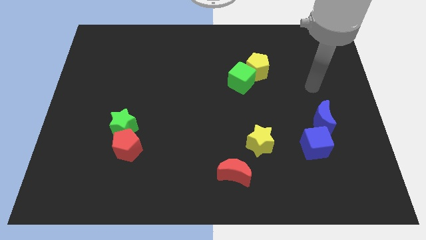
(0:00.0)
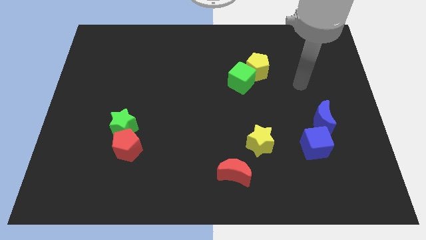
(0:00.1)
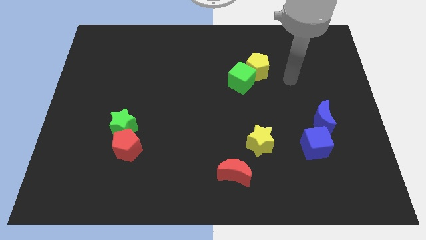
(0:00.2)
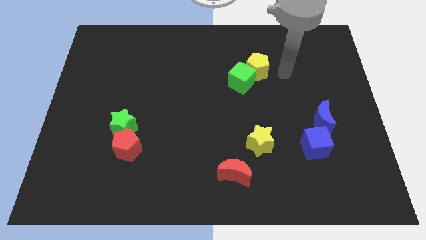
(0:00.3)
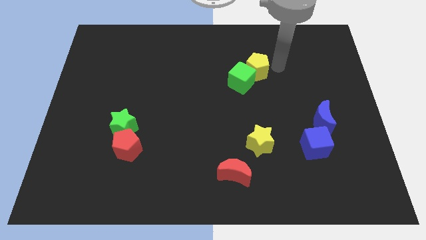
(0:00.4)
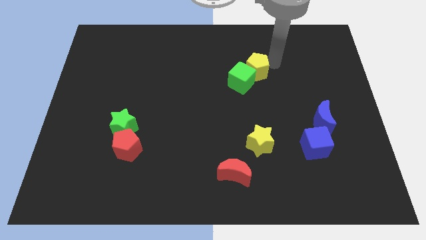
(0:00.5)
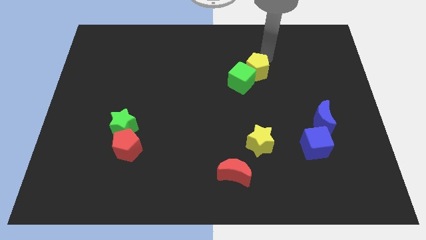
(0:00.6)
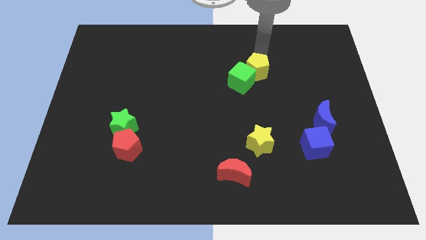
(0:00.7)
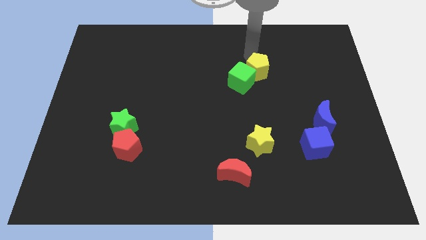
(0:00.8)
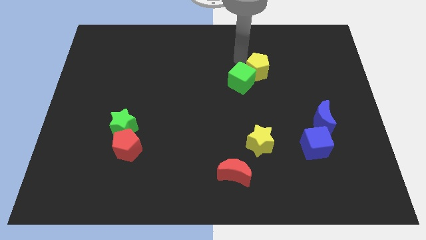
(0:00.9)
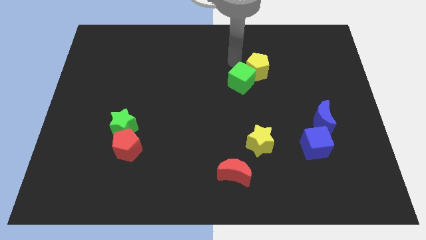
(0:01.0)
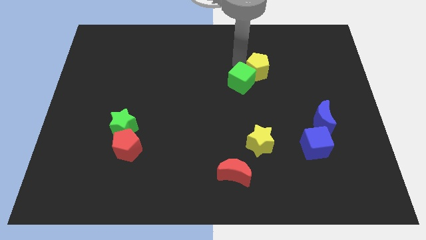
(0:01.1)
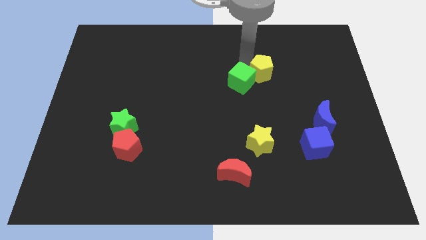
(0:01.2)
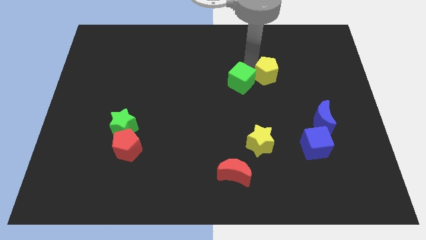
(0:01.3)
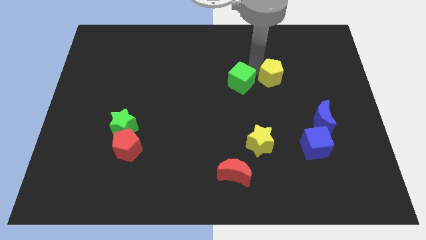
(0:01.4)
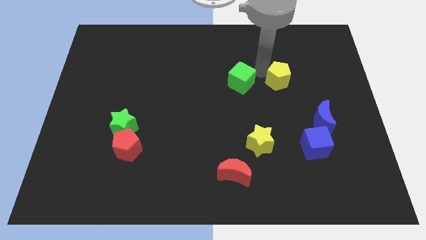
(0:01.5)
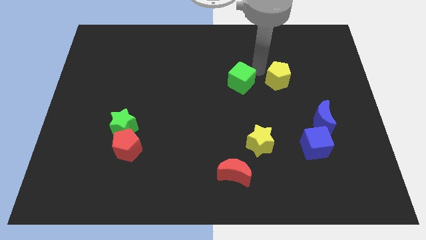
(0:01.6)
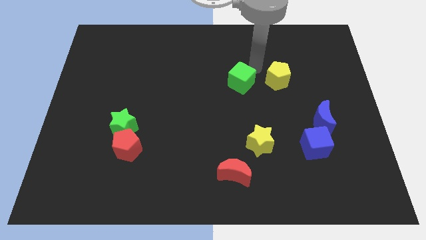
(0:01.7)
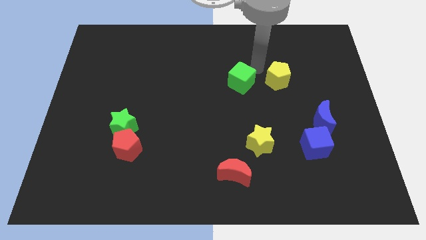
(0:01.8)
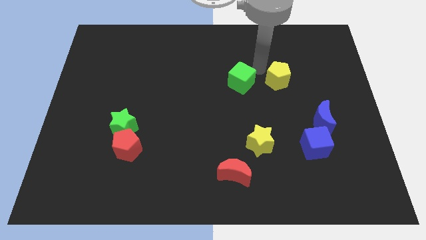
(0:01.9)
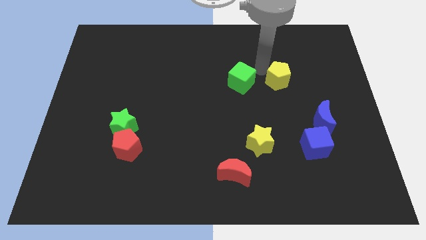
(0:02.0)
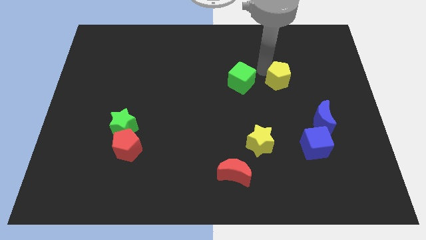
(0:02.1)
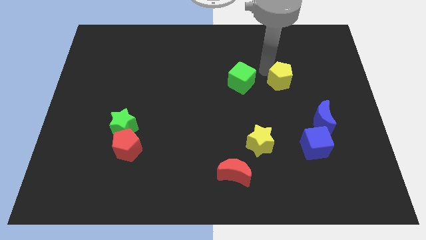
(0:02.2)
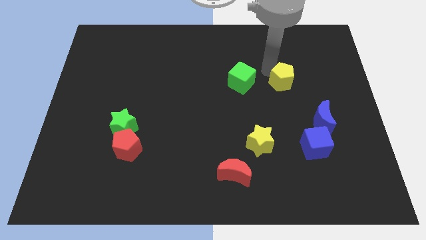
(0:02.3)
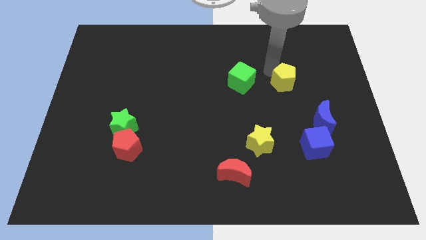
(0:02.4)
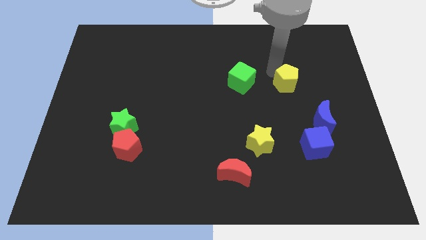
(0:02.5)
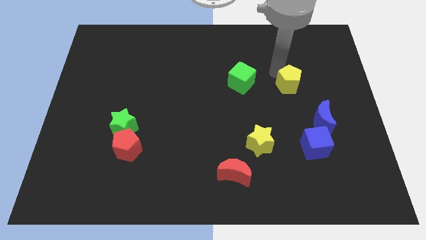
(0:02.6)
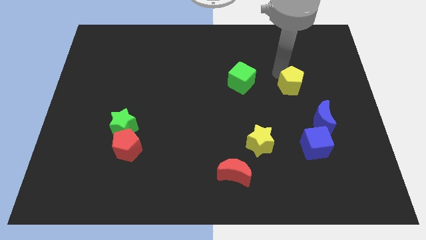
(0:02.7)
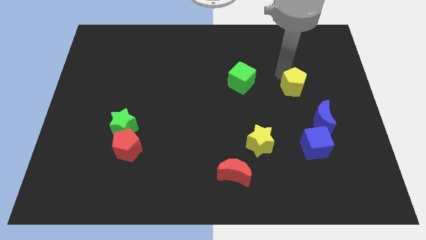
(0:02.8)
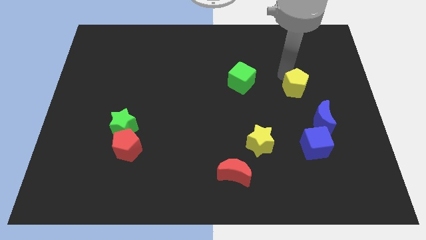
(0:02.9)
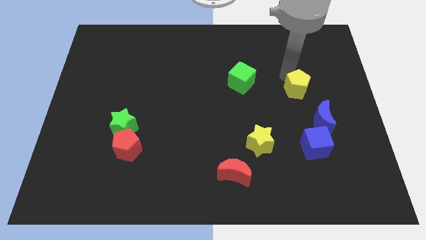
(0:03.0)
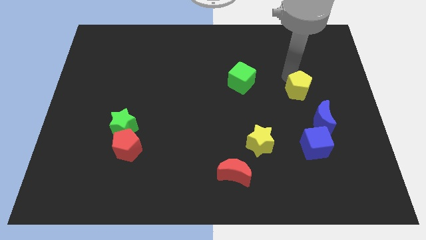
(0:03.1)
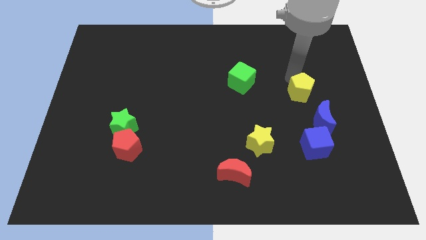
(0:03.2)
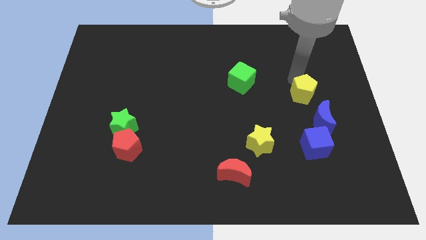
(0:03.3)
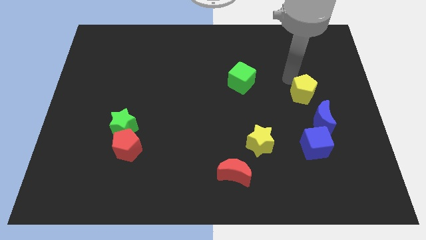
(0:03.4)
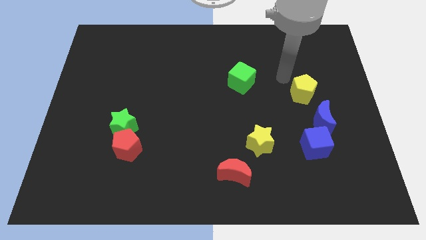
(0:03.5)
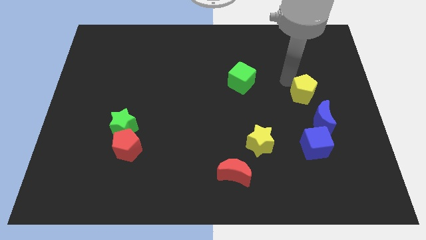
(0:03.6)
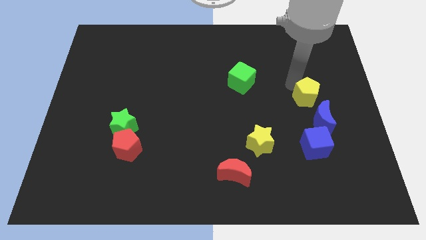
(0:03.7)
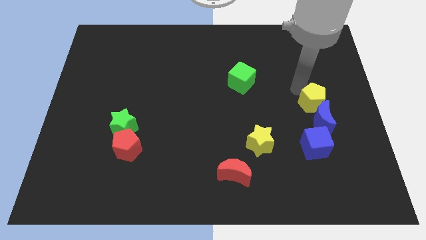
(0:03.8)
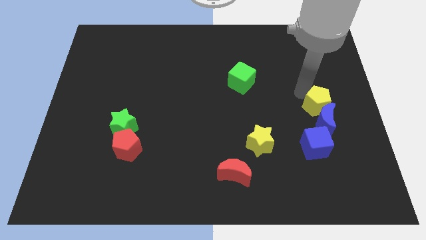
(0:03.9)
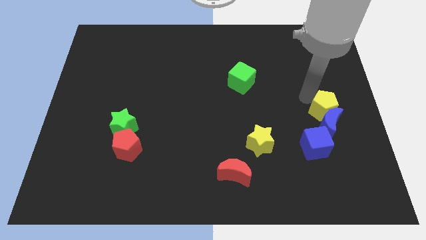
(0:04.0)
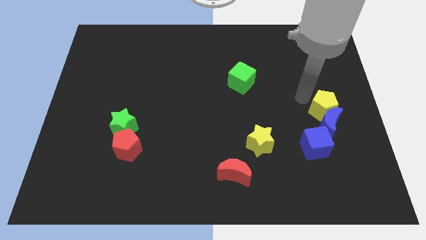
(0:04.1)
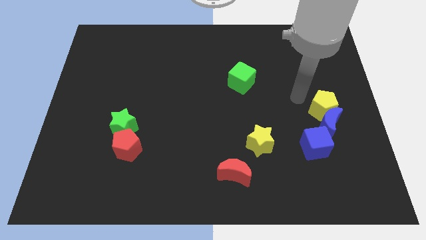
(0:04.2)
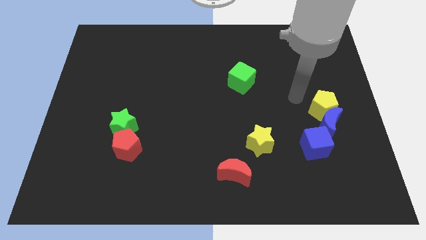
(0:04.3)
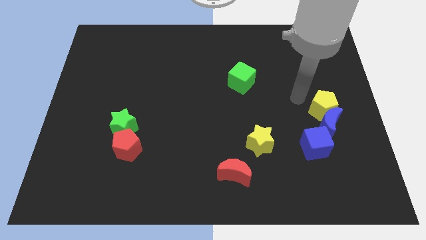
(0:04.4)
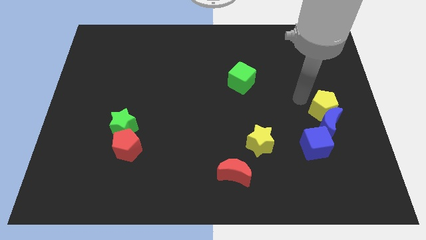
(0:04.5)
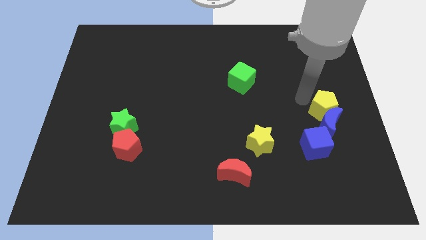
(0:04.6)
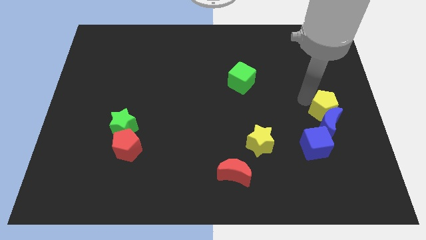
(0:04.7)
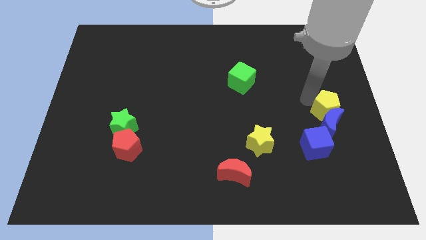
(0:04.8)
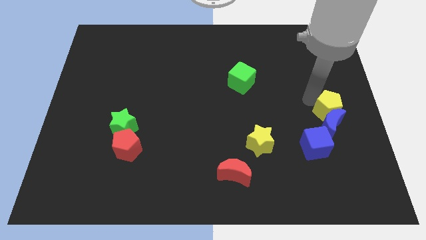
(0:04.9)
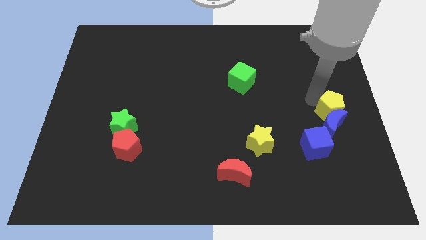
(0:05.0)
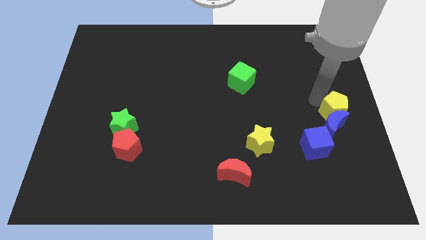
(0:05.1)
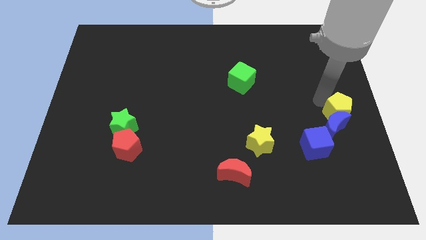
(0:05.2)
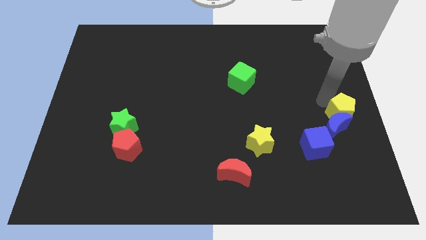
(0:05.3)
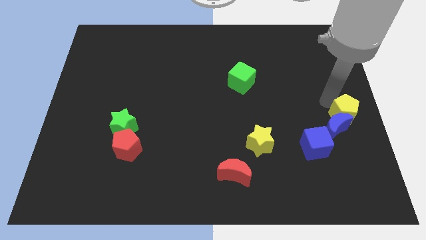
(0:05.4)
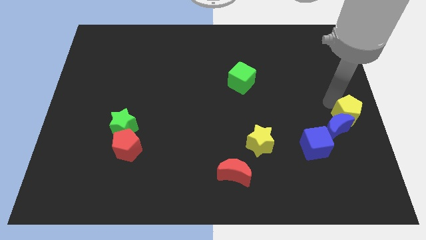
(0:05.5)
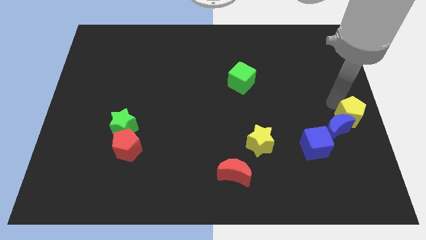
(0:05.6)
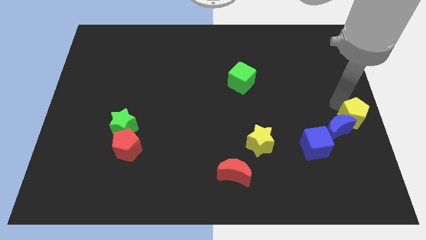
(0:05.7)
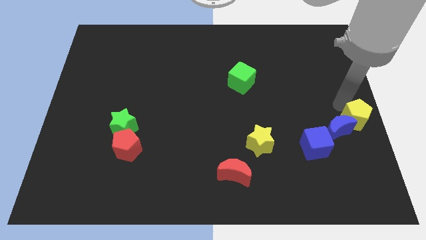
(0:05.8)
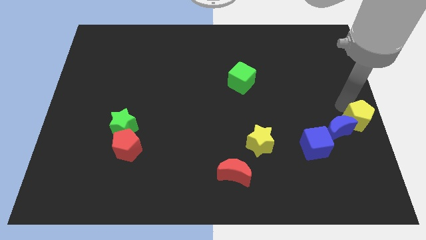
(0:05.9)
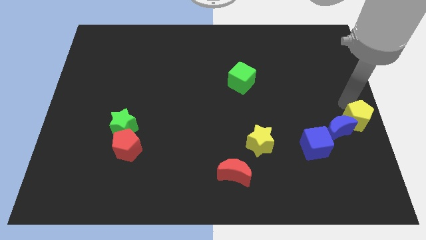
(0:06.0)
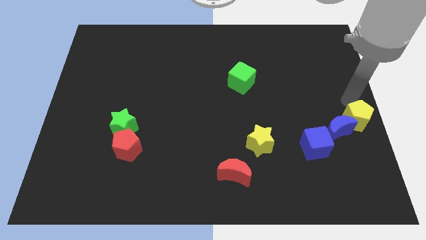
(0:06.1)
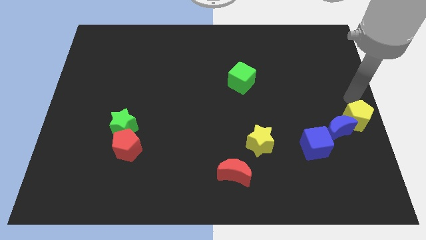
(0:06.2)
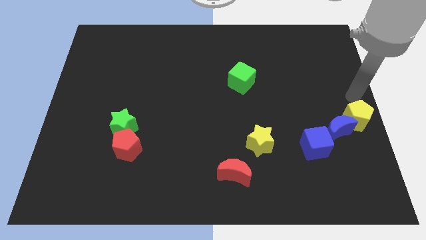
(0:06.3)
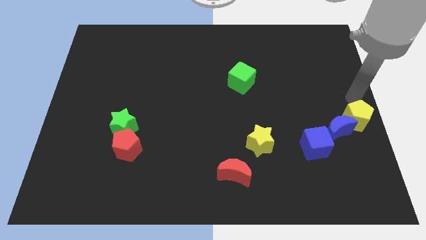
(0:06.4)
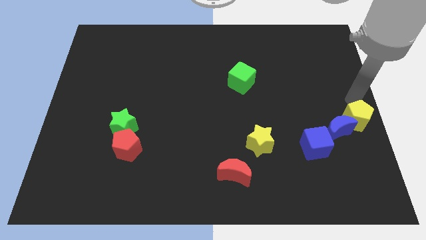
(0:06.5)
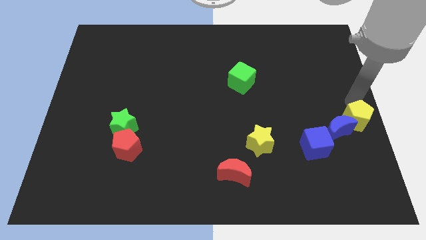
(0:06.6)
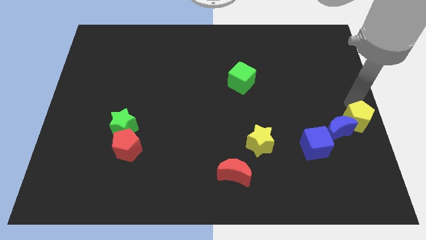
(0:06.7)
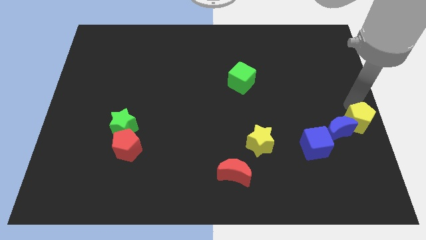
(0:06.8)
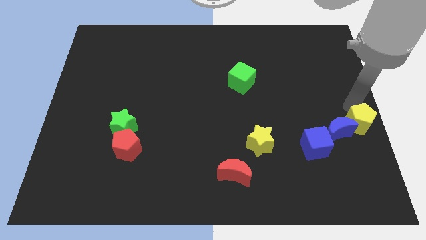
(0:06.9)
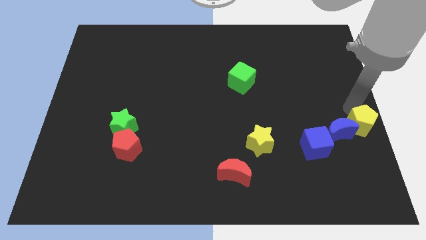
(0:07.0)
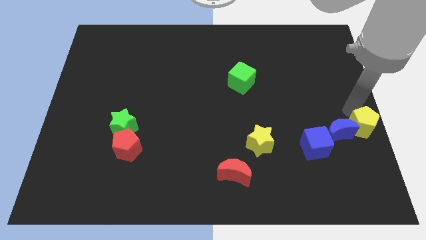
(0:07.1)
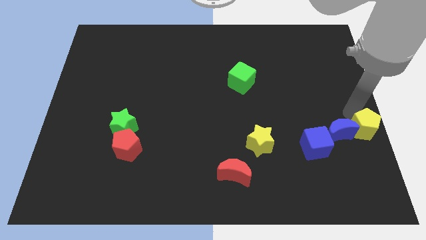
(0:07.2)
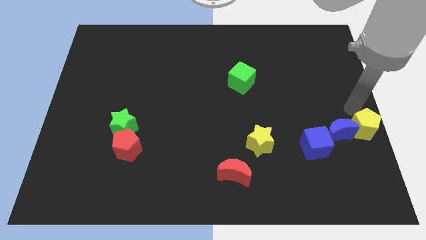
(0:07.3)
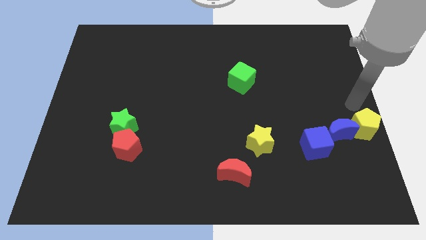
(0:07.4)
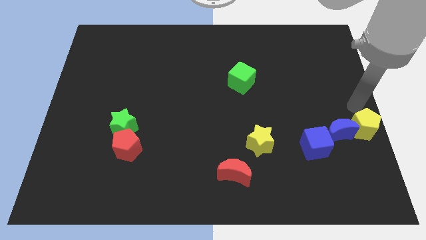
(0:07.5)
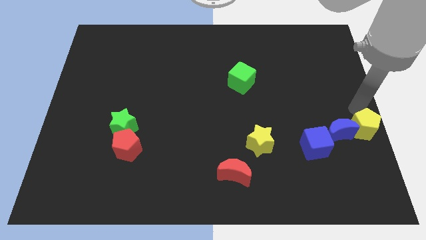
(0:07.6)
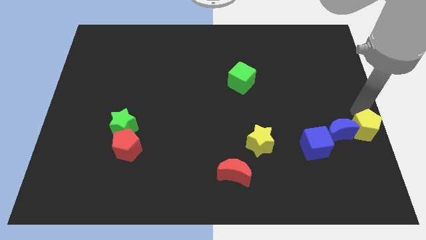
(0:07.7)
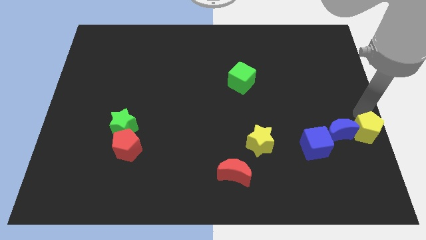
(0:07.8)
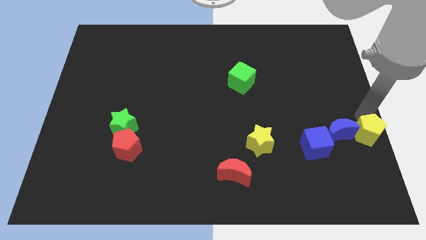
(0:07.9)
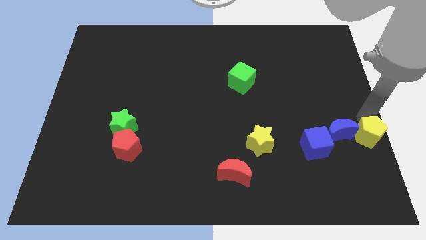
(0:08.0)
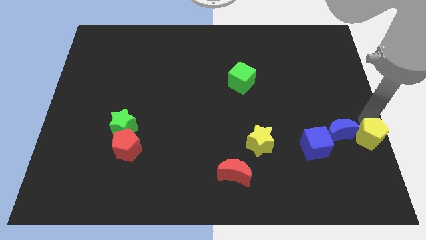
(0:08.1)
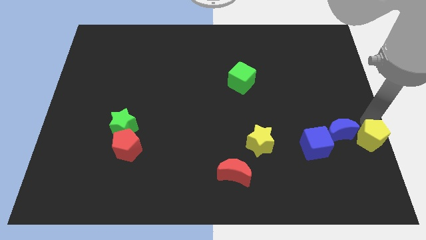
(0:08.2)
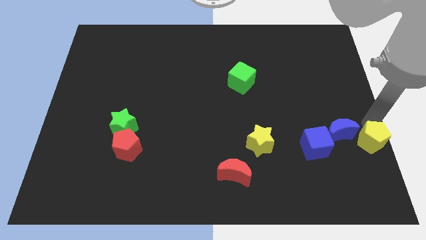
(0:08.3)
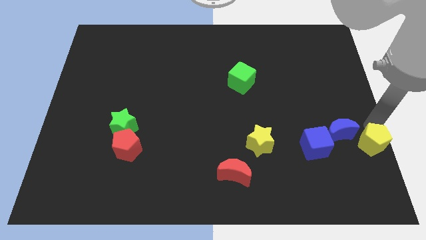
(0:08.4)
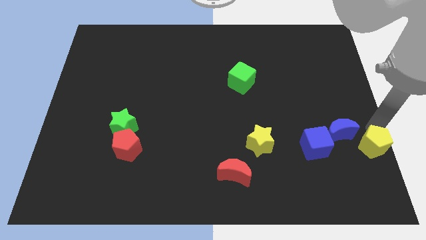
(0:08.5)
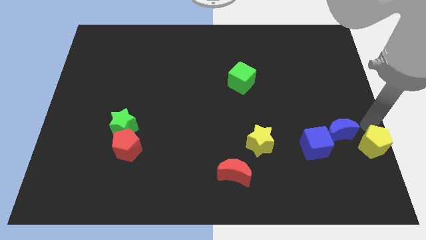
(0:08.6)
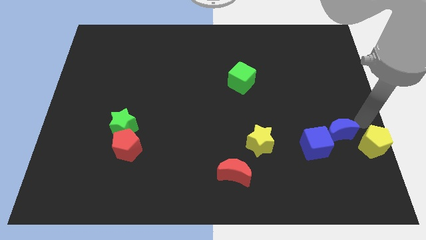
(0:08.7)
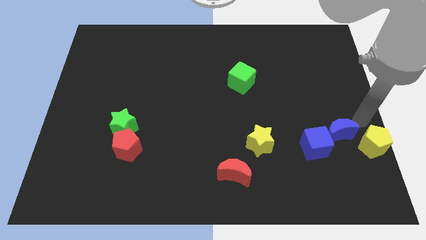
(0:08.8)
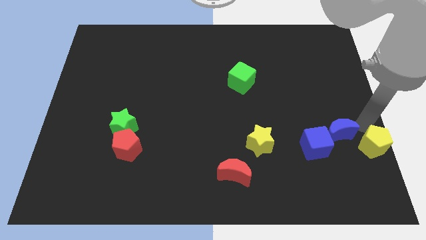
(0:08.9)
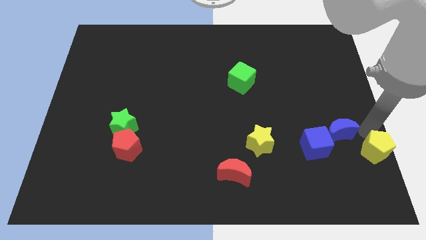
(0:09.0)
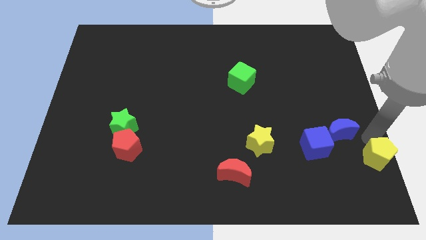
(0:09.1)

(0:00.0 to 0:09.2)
slide the yellow pentagon to the bottom right corner
